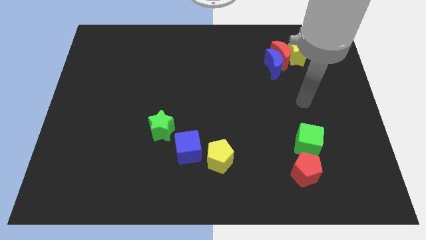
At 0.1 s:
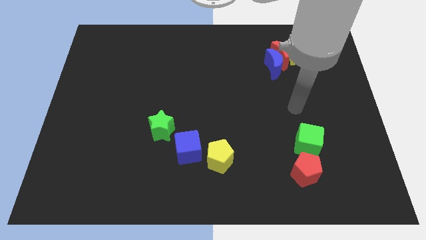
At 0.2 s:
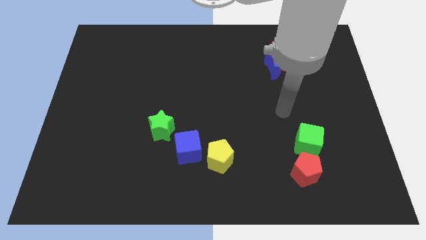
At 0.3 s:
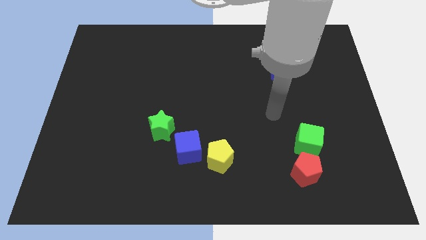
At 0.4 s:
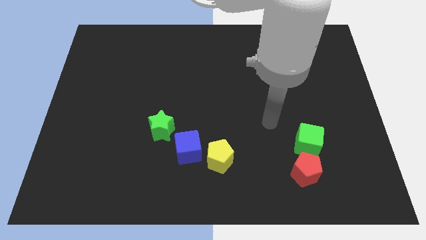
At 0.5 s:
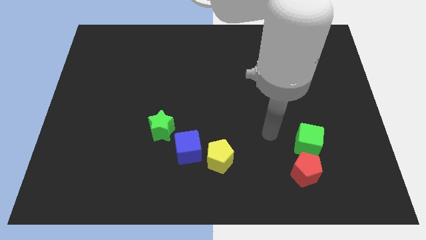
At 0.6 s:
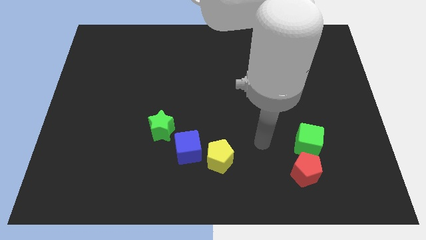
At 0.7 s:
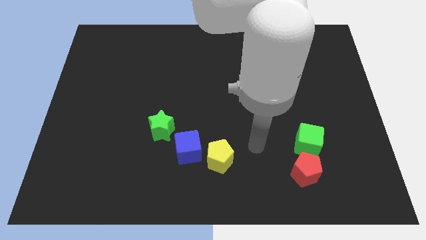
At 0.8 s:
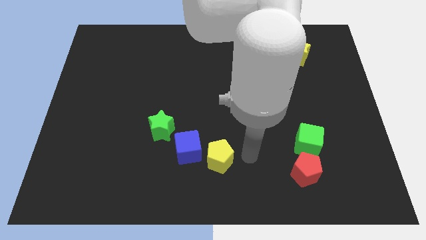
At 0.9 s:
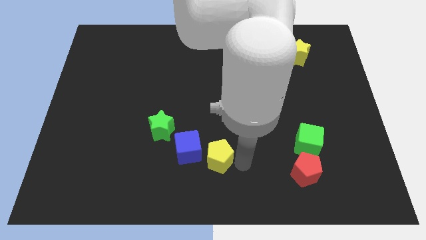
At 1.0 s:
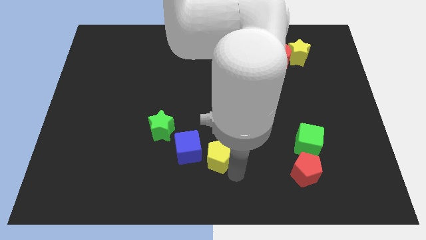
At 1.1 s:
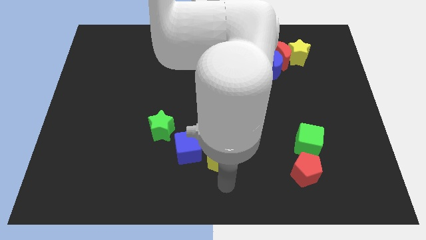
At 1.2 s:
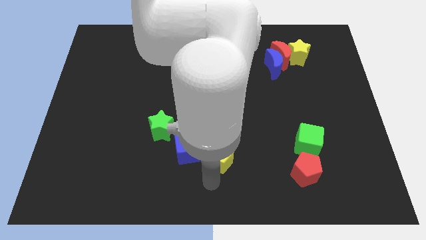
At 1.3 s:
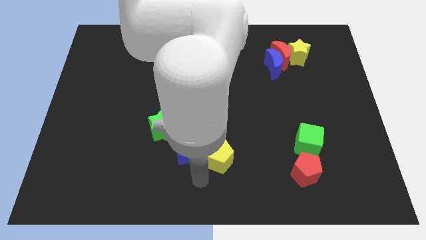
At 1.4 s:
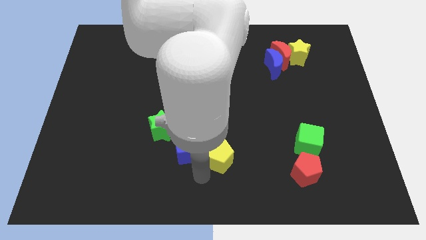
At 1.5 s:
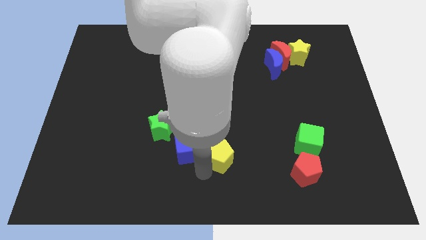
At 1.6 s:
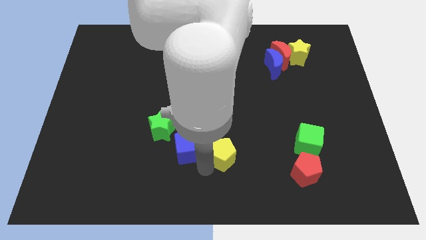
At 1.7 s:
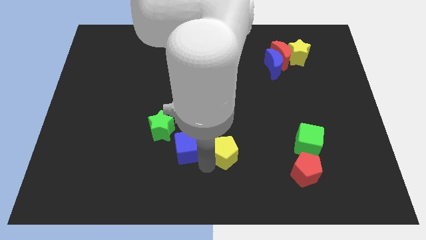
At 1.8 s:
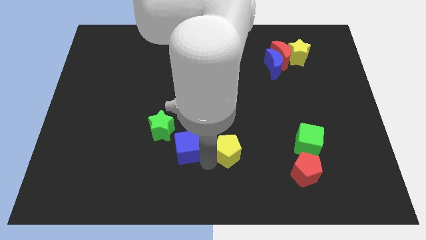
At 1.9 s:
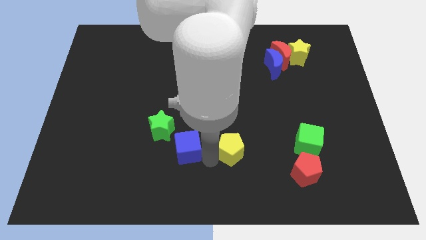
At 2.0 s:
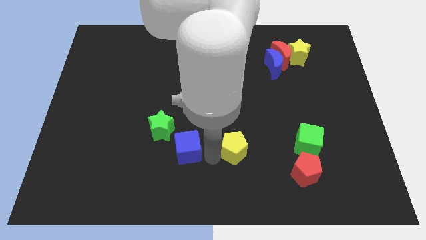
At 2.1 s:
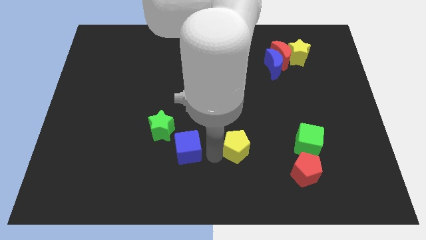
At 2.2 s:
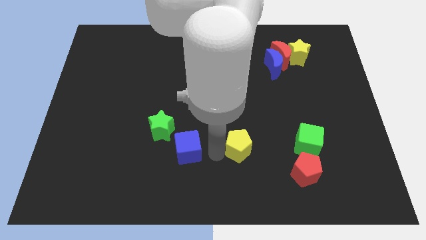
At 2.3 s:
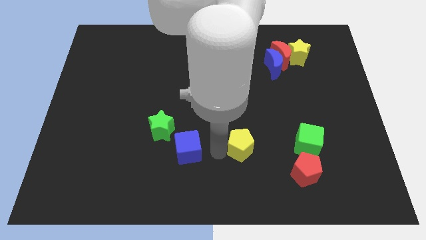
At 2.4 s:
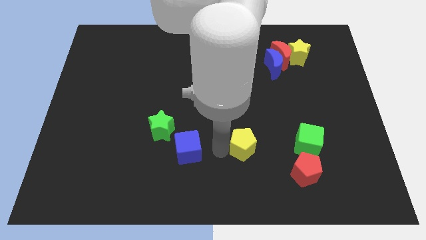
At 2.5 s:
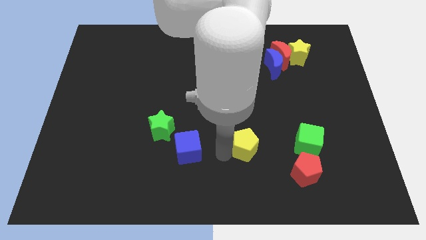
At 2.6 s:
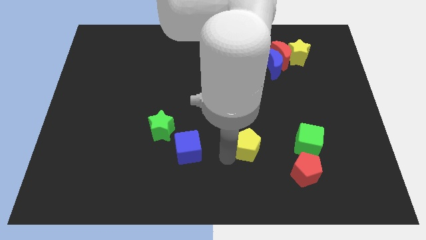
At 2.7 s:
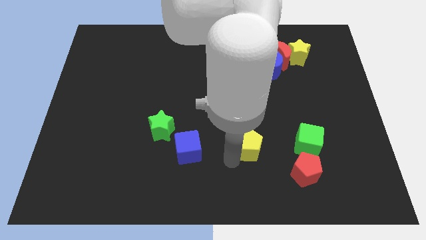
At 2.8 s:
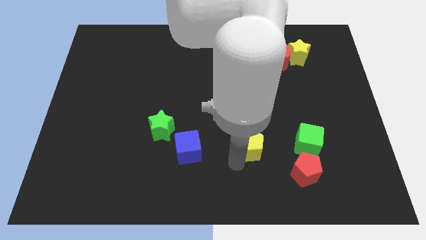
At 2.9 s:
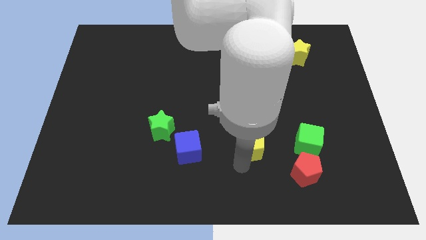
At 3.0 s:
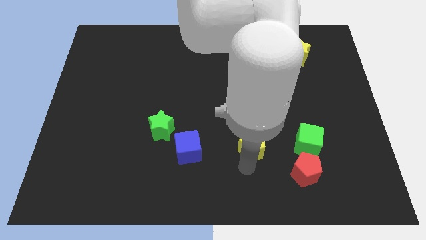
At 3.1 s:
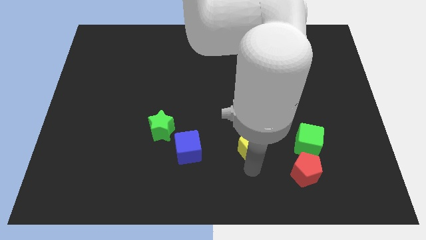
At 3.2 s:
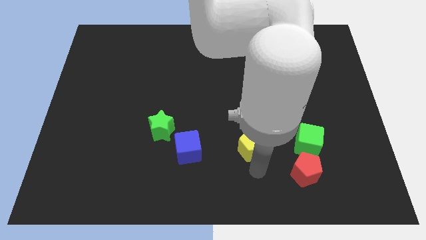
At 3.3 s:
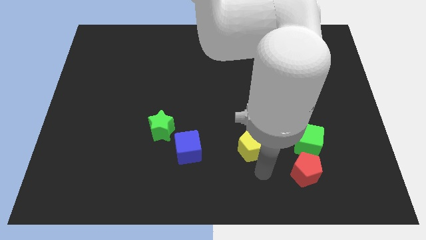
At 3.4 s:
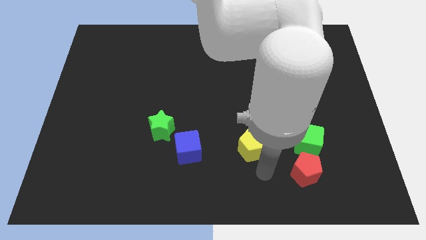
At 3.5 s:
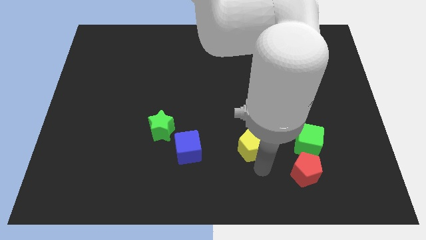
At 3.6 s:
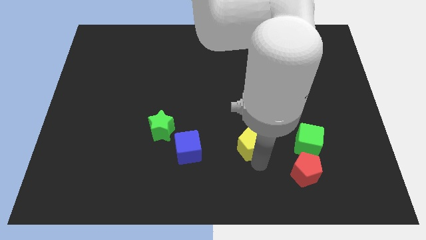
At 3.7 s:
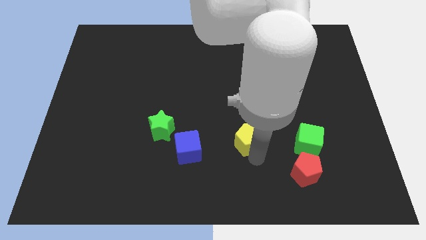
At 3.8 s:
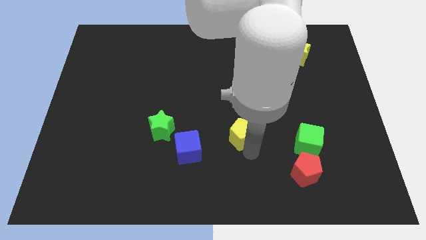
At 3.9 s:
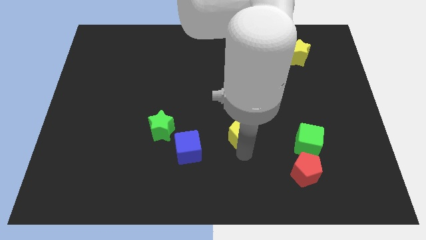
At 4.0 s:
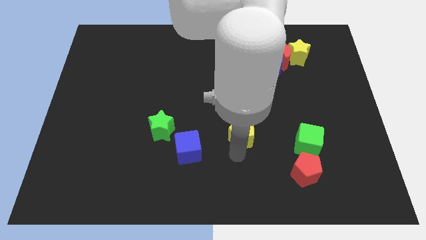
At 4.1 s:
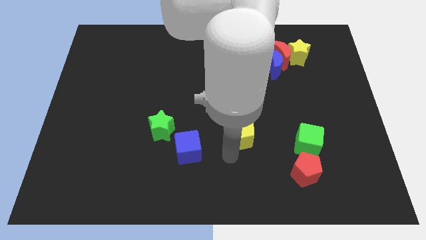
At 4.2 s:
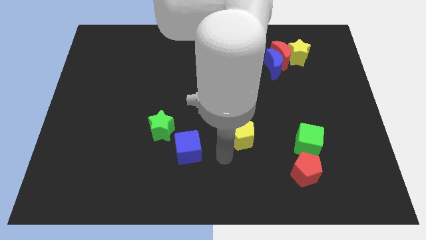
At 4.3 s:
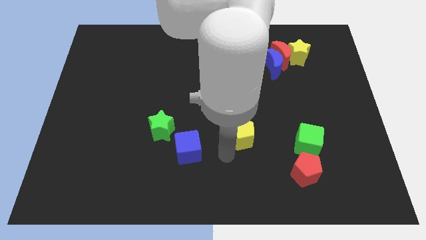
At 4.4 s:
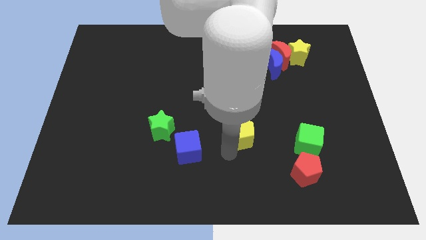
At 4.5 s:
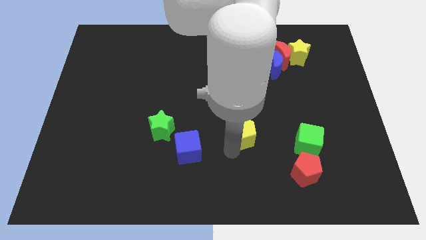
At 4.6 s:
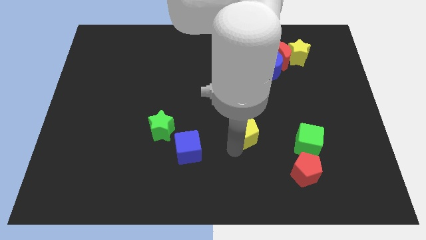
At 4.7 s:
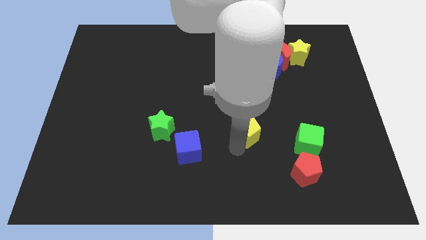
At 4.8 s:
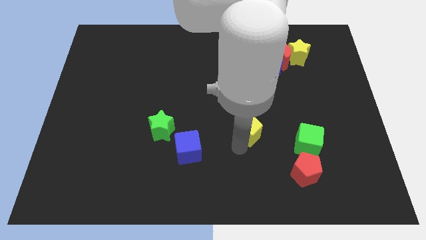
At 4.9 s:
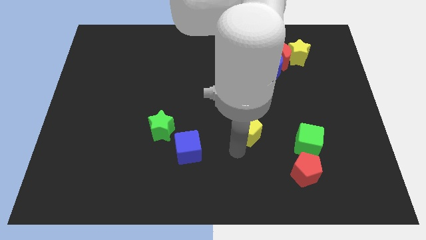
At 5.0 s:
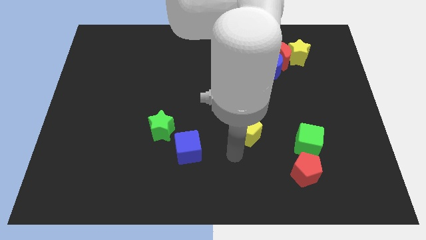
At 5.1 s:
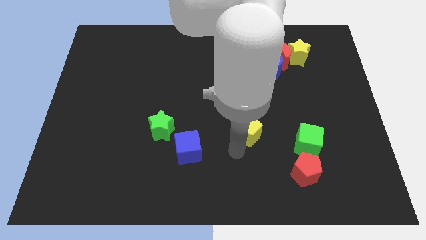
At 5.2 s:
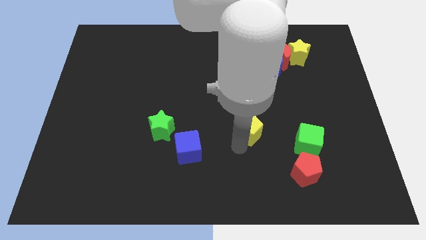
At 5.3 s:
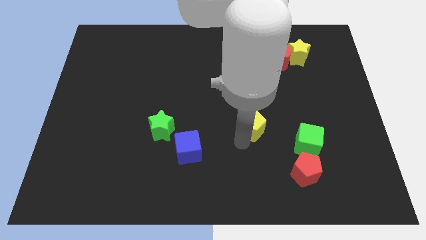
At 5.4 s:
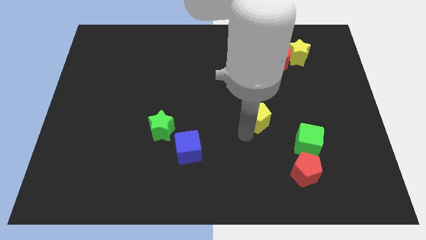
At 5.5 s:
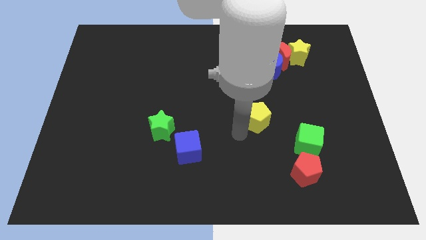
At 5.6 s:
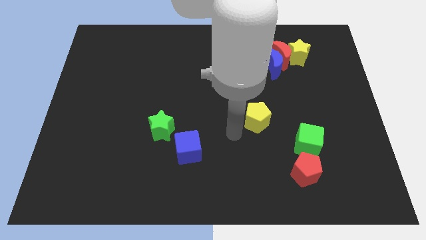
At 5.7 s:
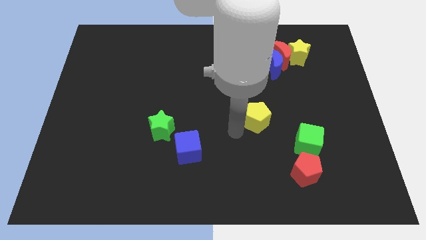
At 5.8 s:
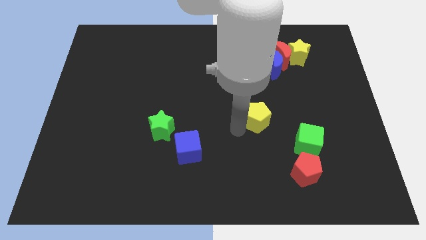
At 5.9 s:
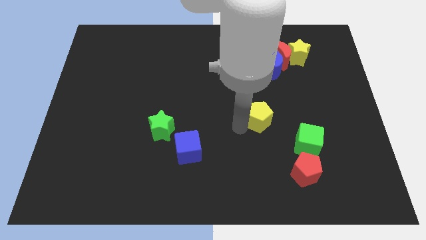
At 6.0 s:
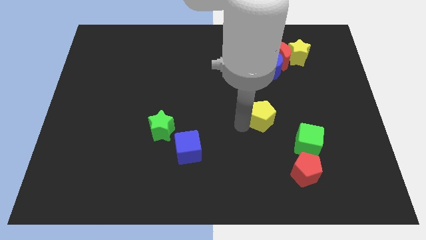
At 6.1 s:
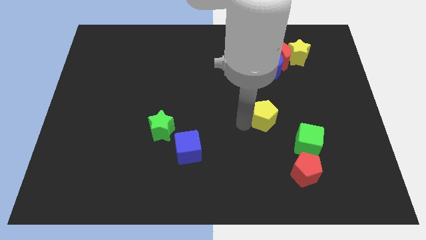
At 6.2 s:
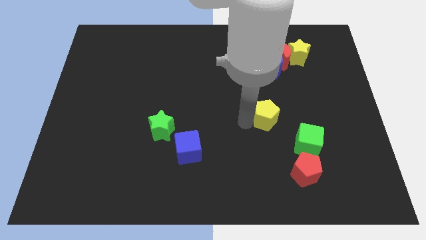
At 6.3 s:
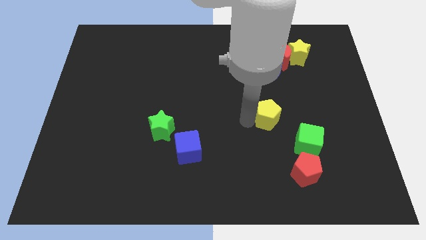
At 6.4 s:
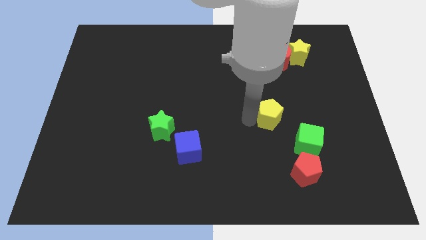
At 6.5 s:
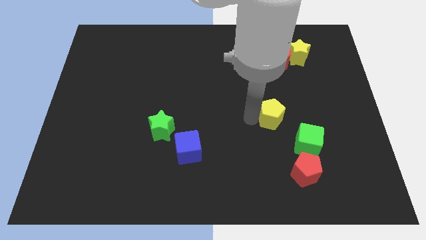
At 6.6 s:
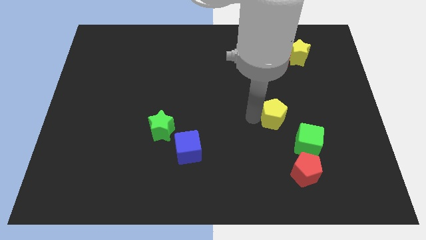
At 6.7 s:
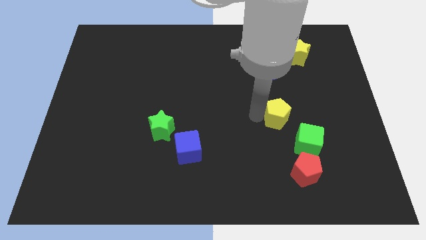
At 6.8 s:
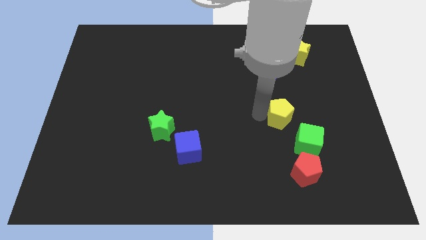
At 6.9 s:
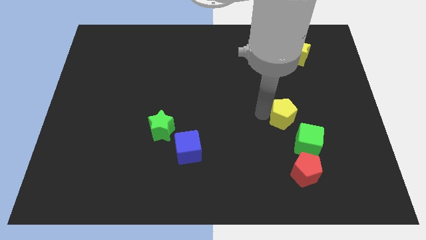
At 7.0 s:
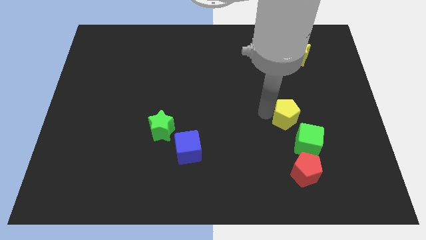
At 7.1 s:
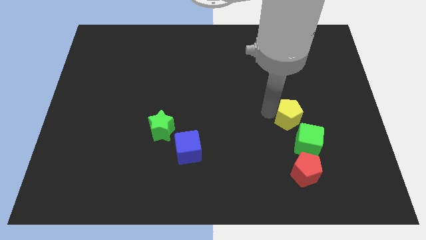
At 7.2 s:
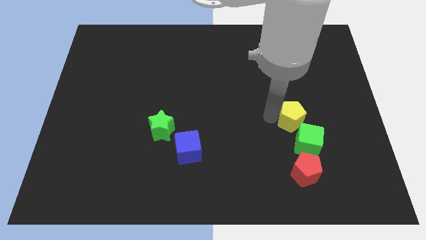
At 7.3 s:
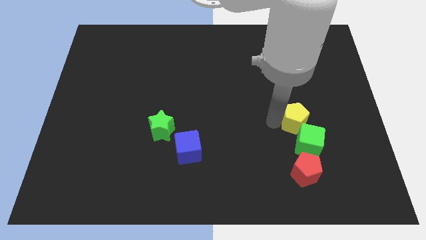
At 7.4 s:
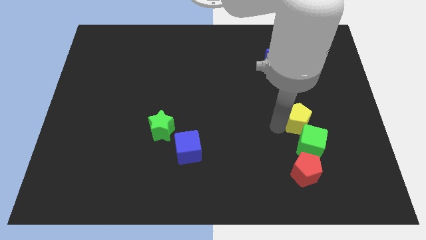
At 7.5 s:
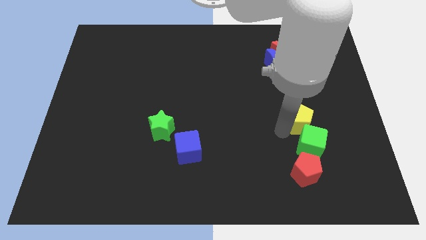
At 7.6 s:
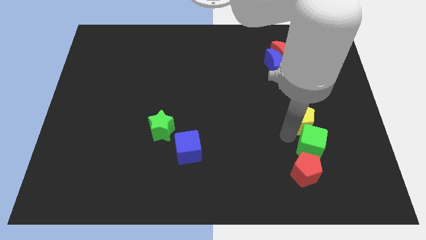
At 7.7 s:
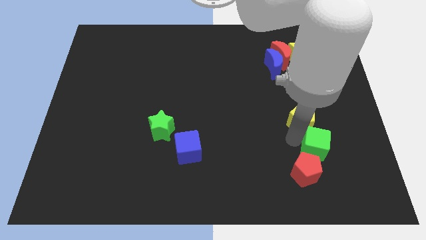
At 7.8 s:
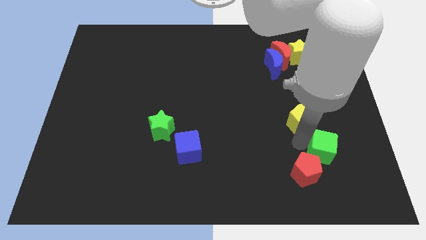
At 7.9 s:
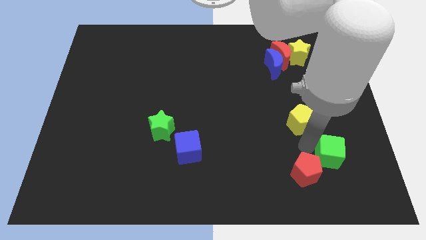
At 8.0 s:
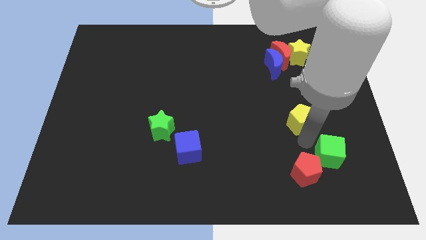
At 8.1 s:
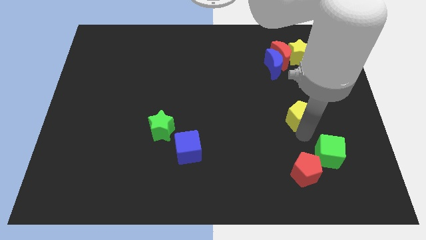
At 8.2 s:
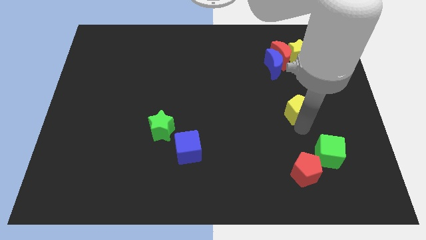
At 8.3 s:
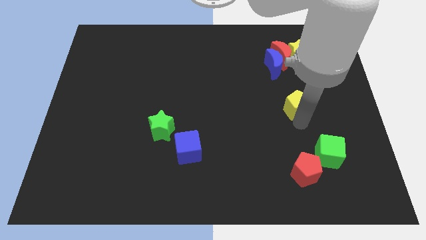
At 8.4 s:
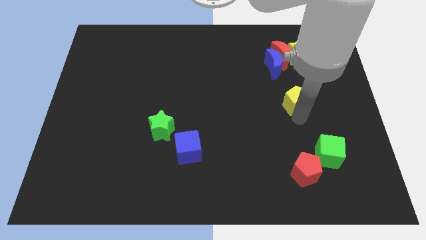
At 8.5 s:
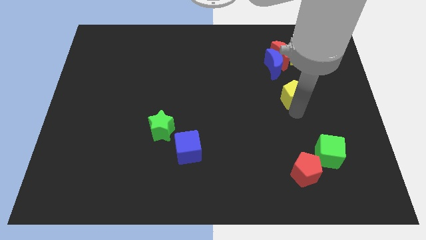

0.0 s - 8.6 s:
push the yellow pentagon to the bottom of the yellow star
